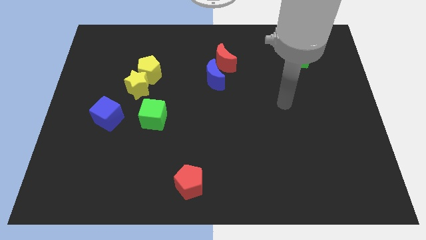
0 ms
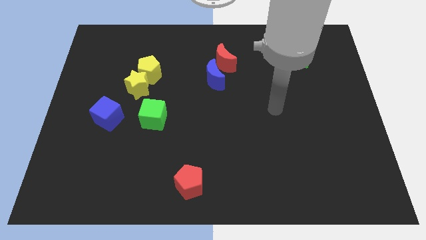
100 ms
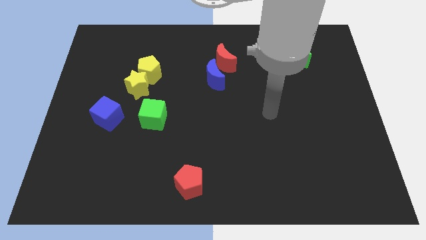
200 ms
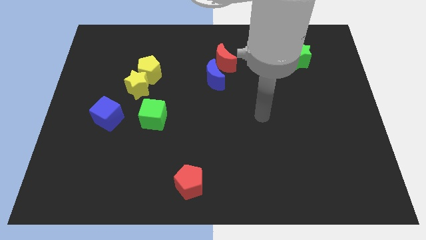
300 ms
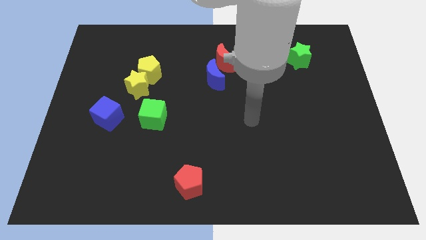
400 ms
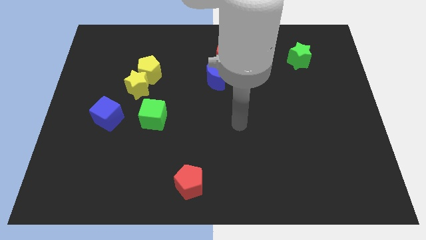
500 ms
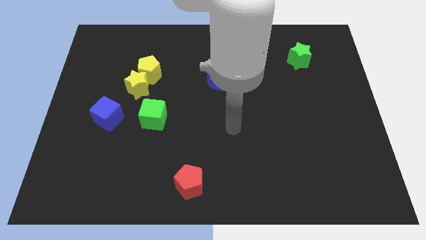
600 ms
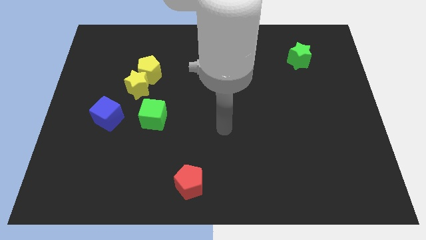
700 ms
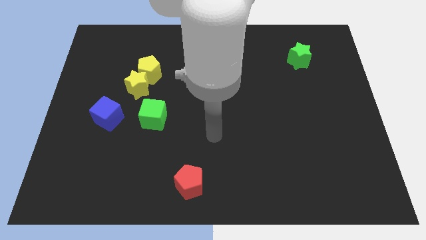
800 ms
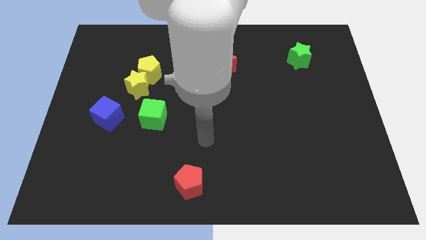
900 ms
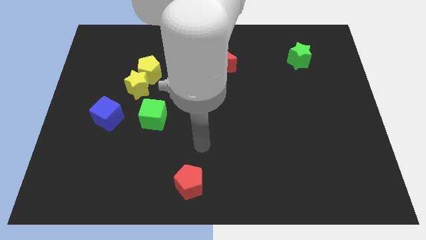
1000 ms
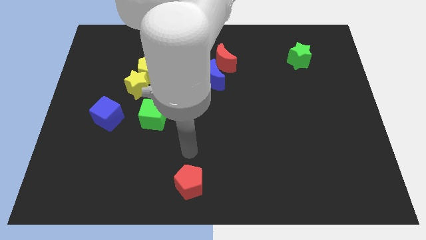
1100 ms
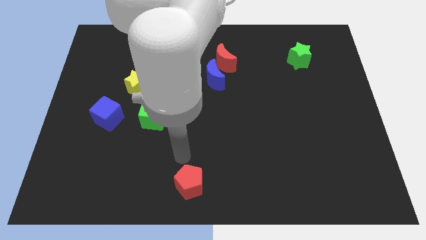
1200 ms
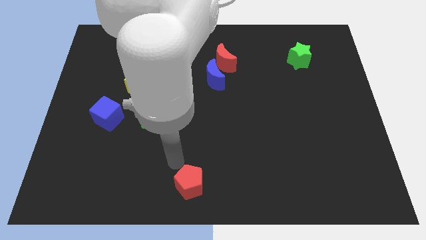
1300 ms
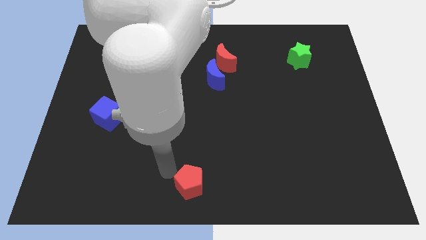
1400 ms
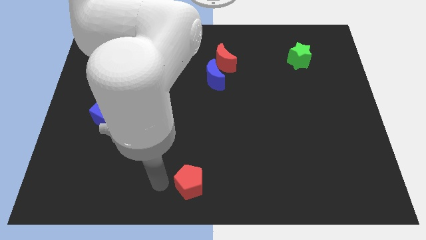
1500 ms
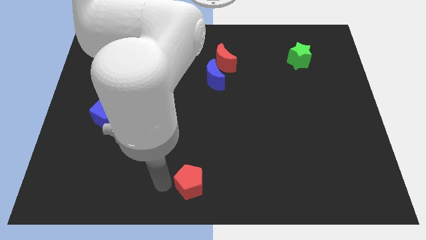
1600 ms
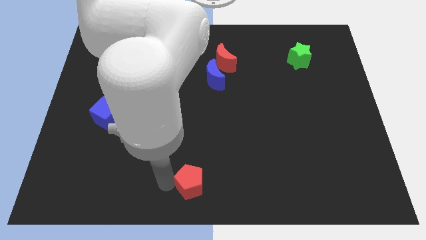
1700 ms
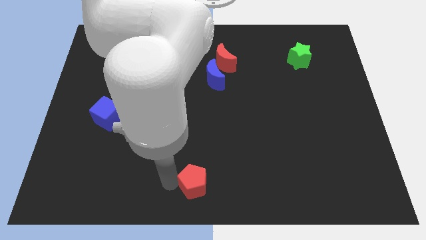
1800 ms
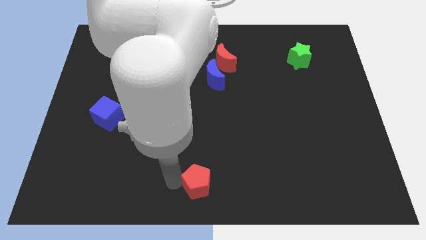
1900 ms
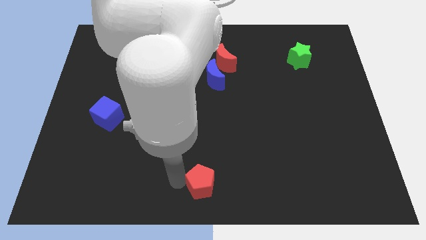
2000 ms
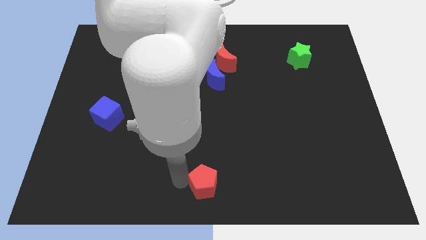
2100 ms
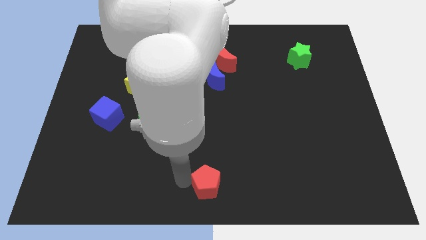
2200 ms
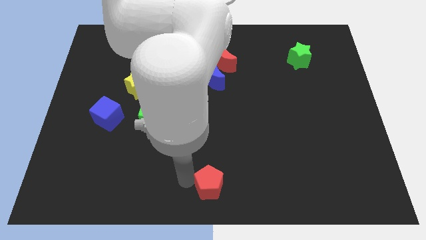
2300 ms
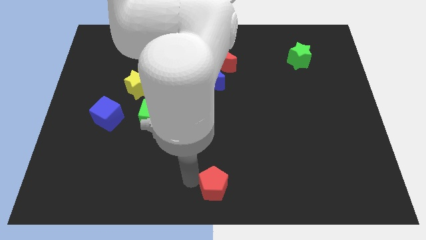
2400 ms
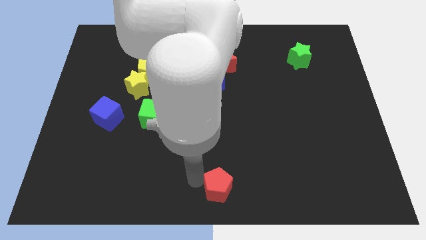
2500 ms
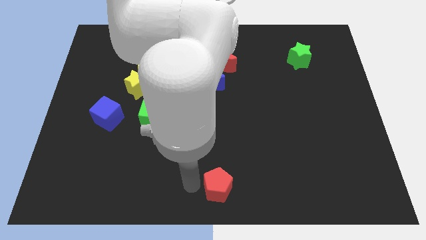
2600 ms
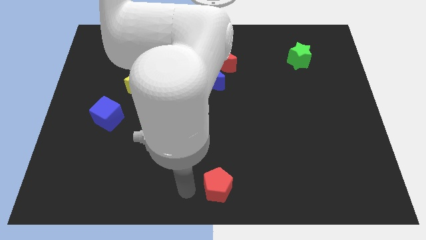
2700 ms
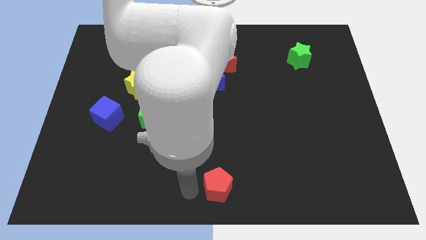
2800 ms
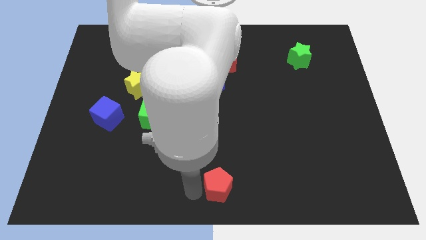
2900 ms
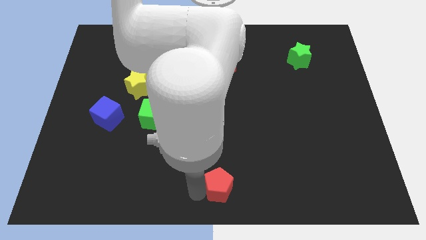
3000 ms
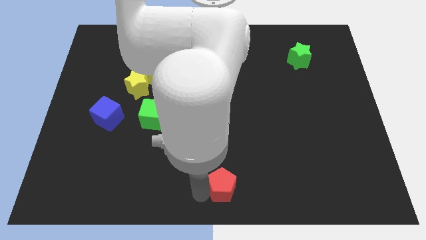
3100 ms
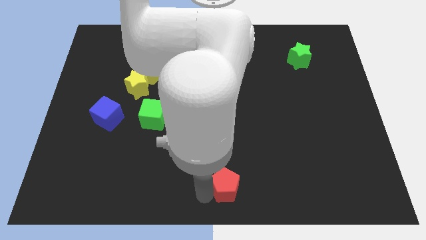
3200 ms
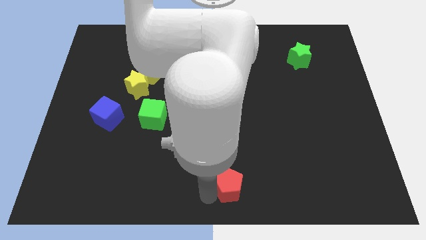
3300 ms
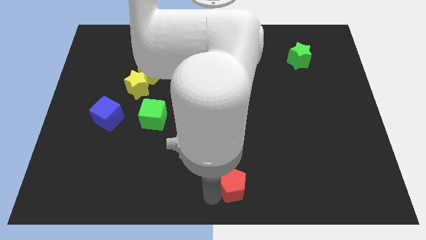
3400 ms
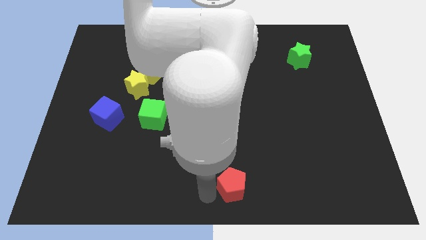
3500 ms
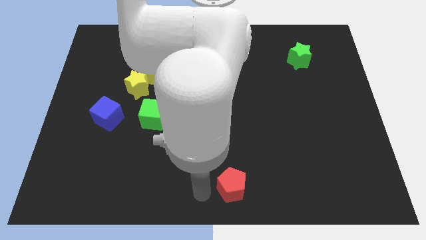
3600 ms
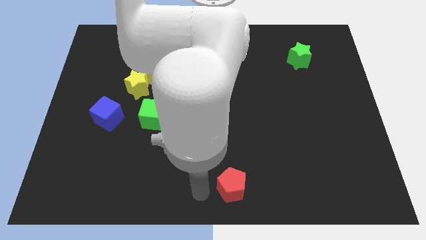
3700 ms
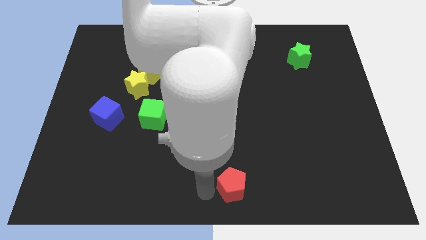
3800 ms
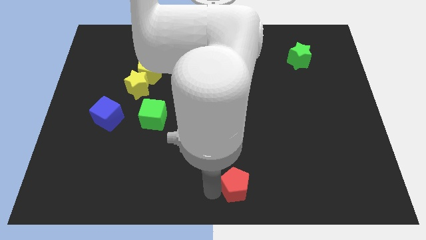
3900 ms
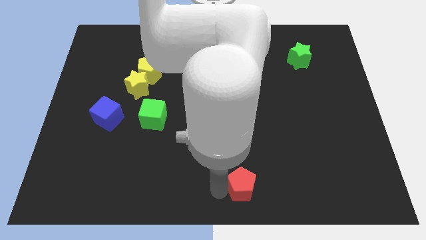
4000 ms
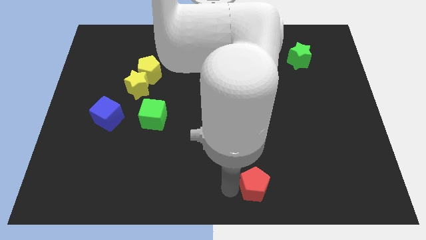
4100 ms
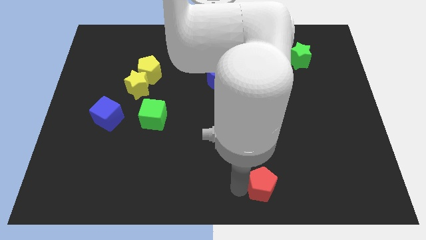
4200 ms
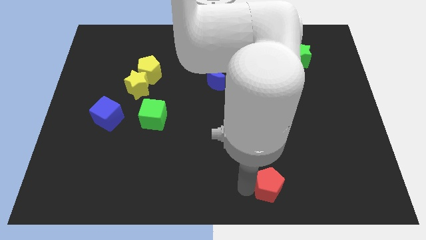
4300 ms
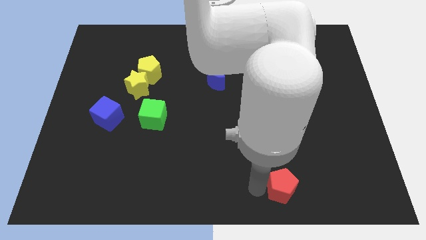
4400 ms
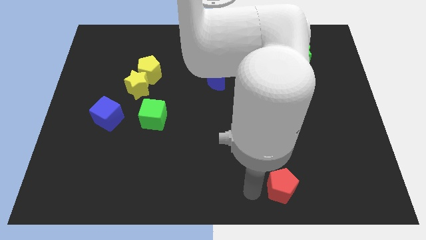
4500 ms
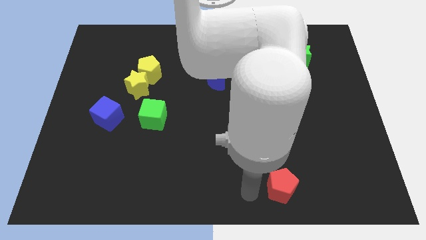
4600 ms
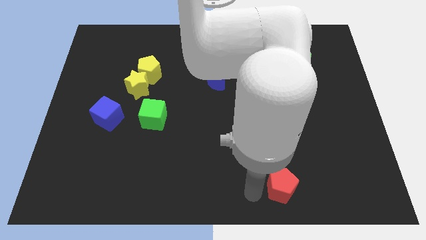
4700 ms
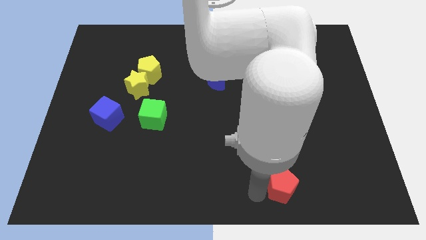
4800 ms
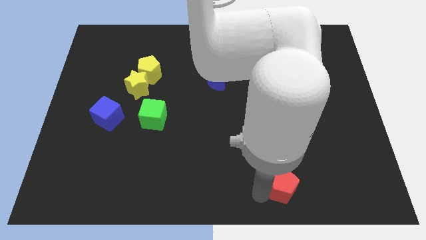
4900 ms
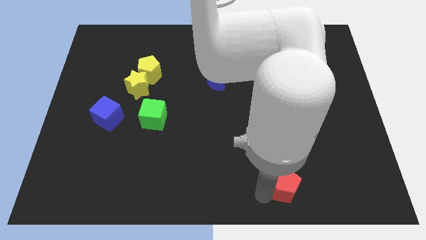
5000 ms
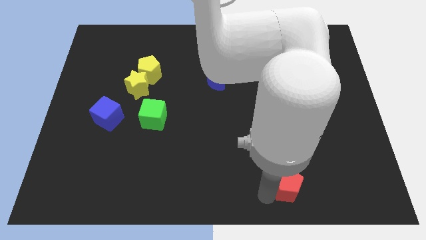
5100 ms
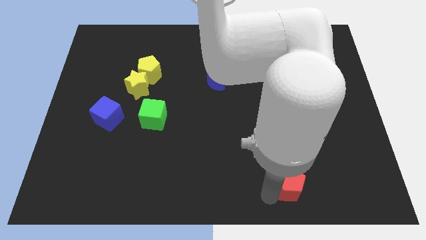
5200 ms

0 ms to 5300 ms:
move the red pentagon right

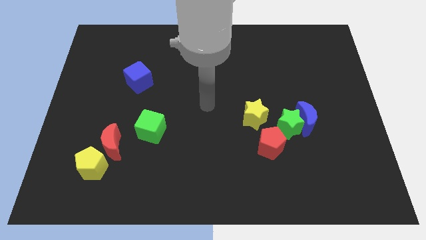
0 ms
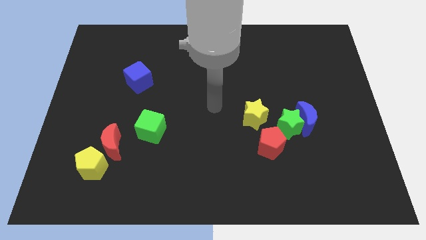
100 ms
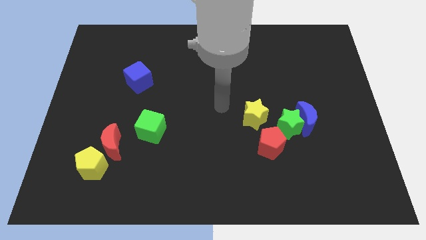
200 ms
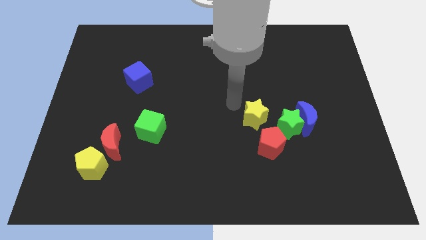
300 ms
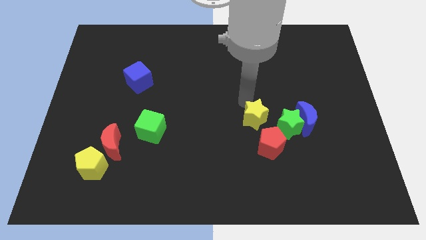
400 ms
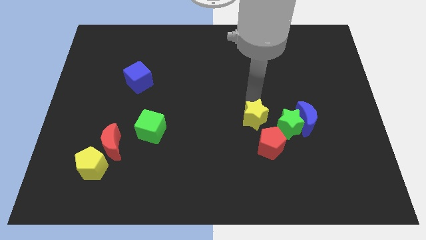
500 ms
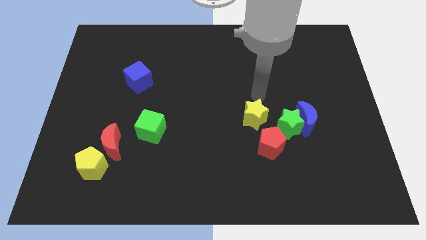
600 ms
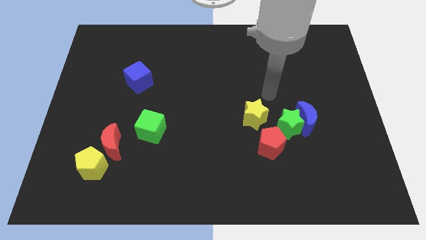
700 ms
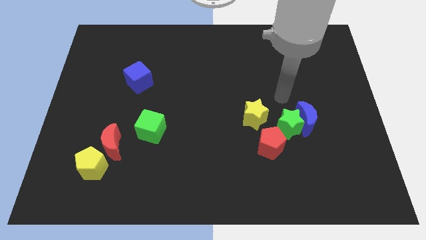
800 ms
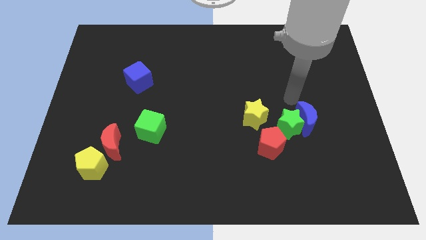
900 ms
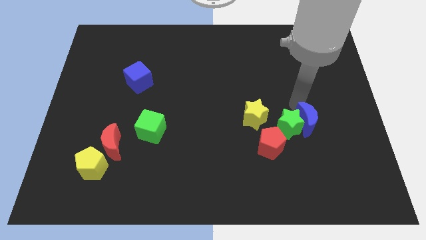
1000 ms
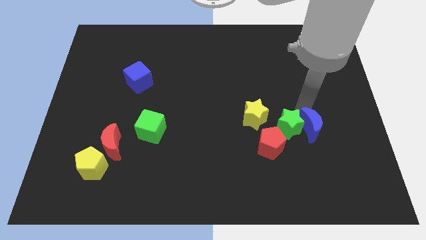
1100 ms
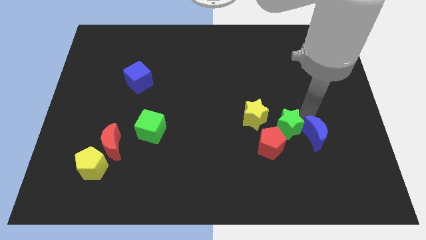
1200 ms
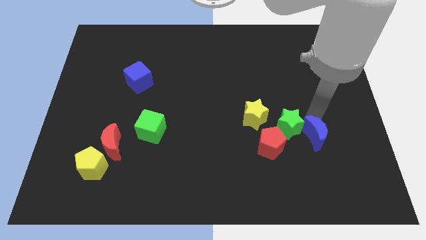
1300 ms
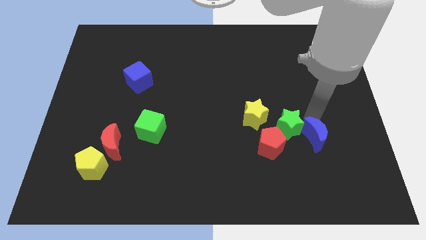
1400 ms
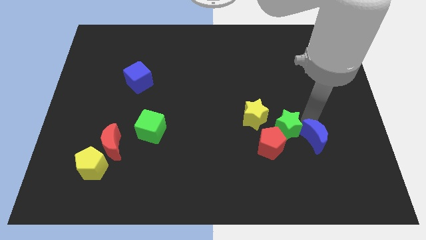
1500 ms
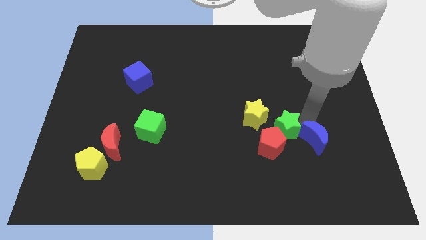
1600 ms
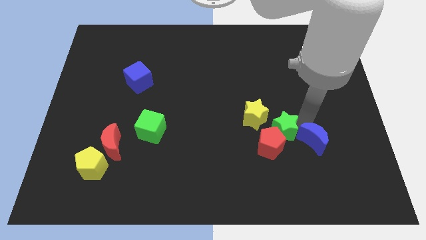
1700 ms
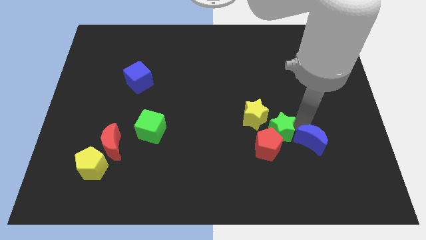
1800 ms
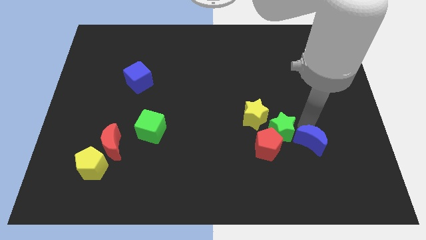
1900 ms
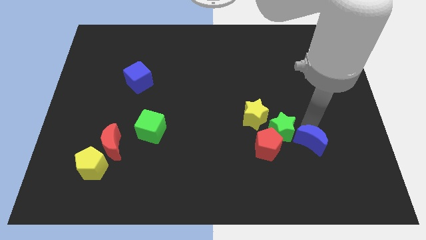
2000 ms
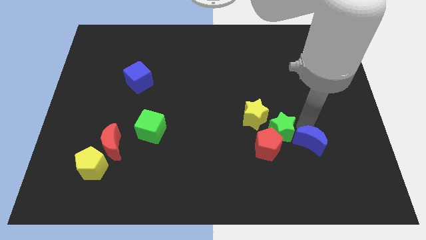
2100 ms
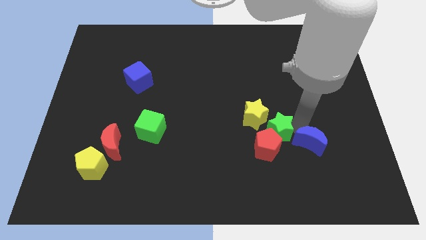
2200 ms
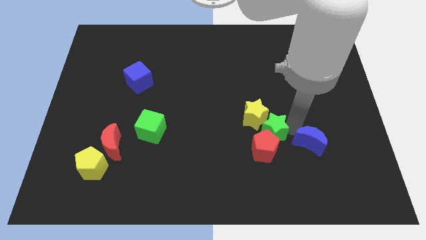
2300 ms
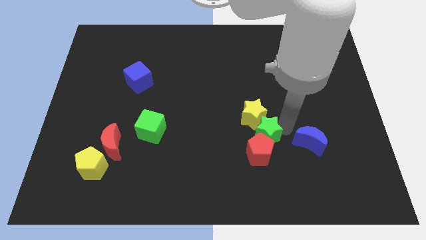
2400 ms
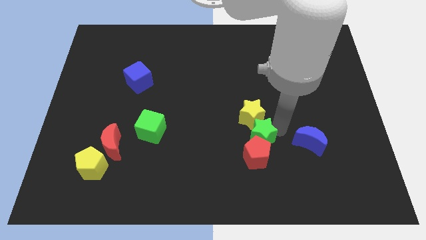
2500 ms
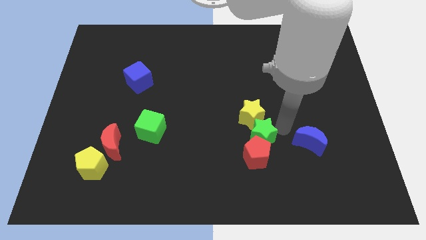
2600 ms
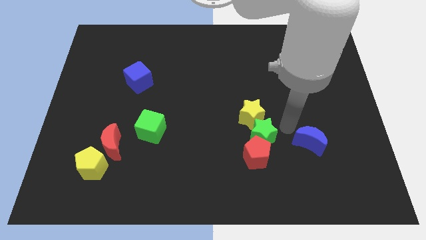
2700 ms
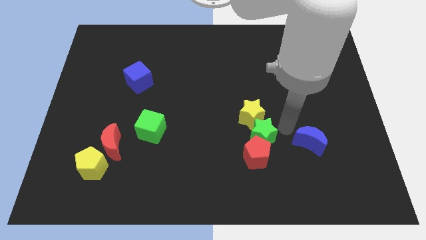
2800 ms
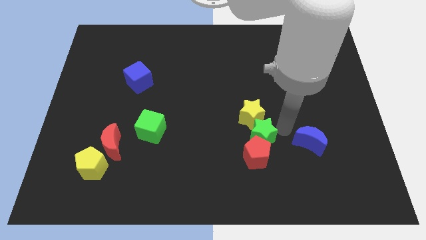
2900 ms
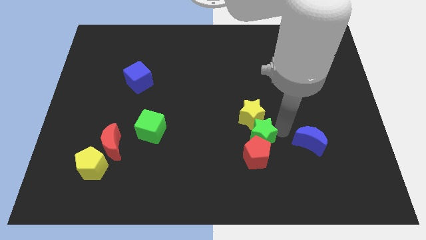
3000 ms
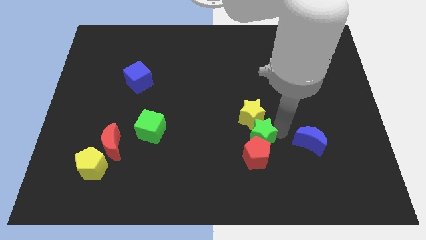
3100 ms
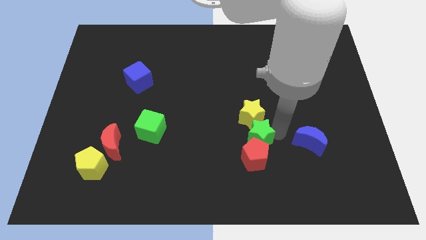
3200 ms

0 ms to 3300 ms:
move the green star slightly diagonally downwards and left
